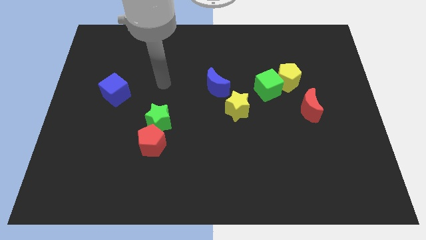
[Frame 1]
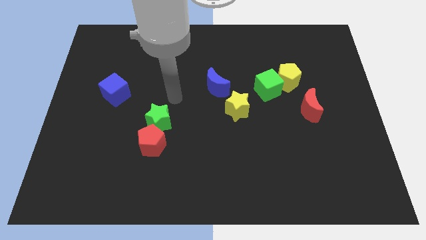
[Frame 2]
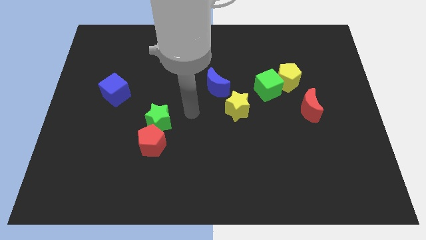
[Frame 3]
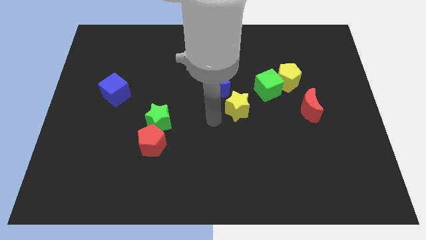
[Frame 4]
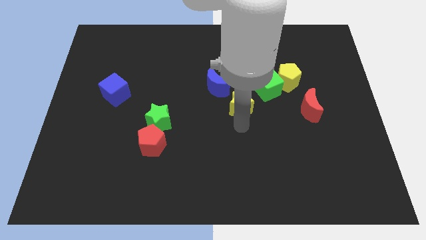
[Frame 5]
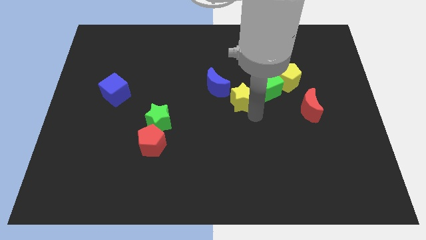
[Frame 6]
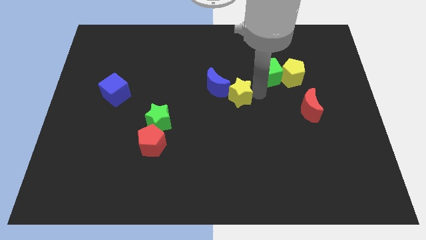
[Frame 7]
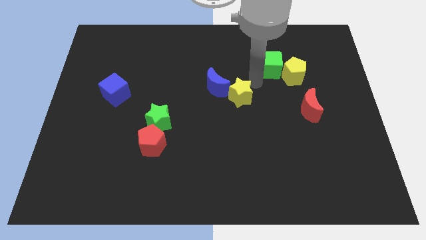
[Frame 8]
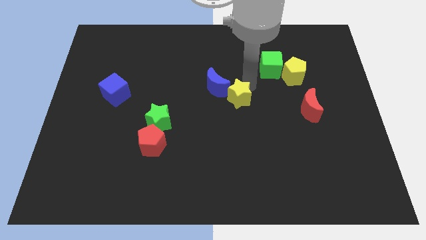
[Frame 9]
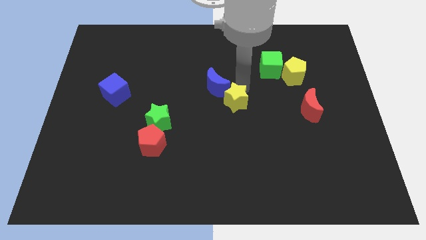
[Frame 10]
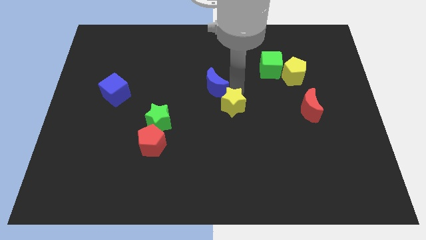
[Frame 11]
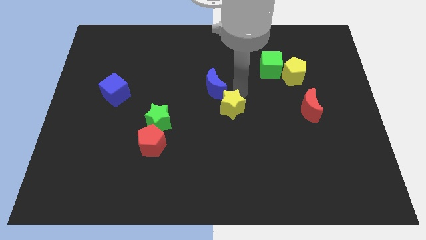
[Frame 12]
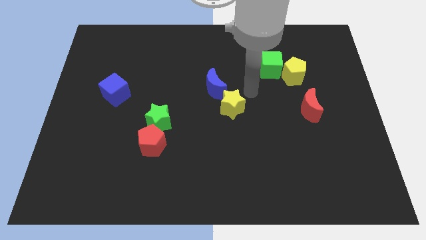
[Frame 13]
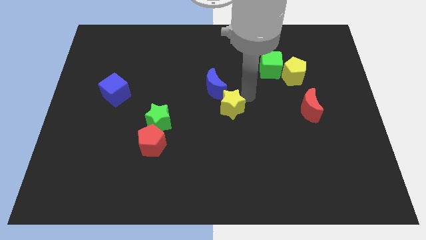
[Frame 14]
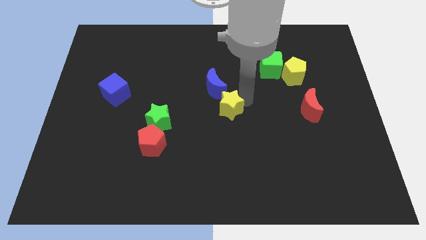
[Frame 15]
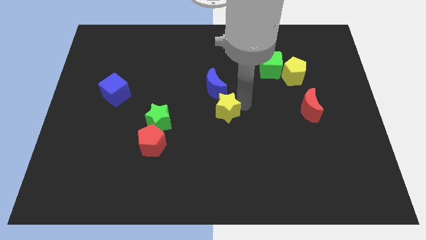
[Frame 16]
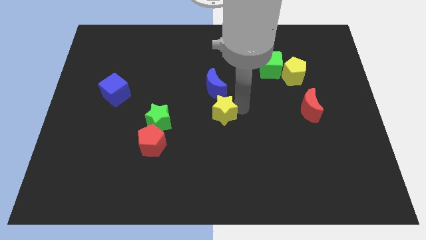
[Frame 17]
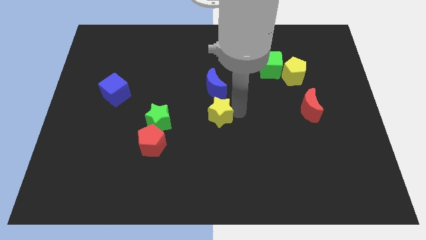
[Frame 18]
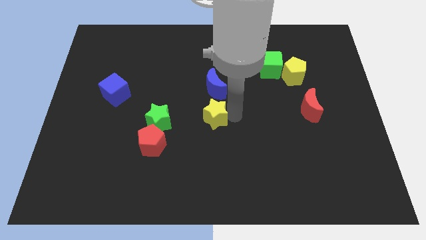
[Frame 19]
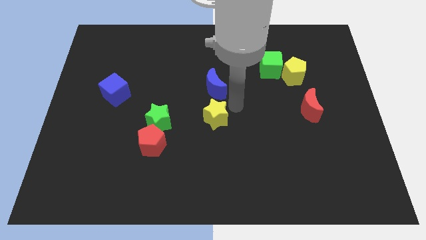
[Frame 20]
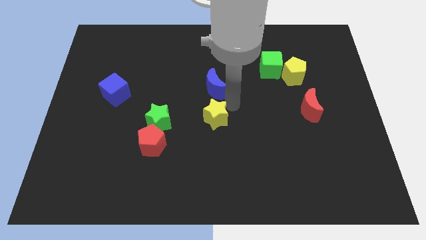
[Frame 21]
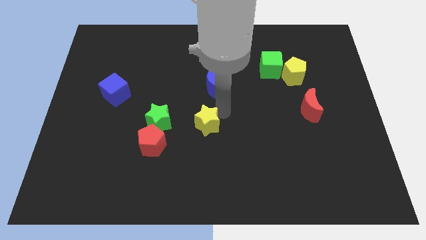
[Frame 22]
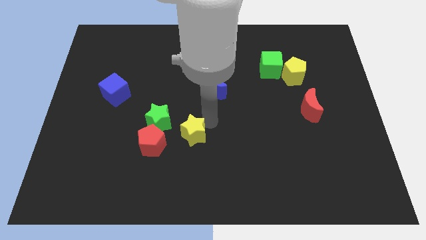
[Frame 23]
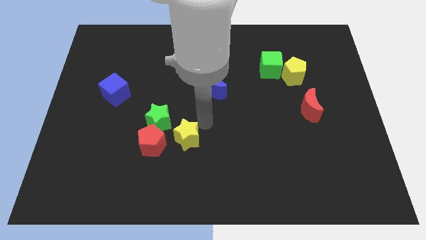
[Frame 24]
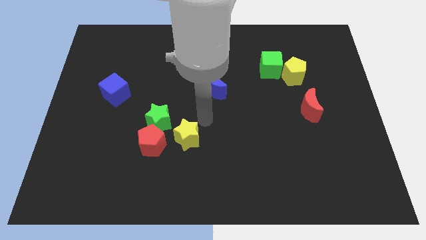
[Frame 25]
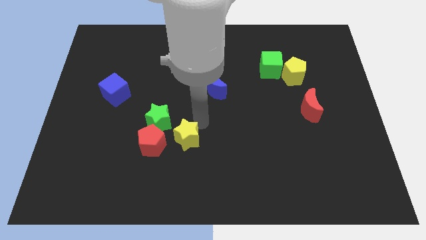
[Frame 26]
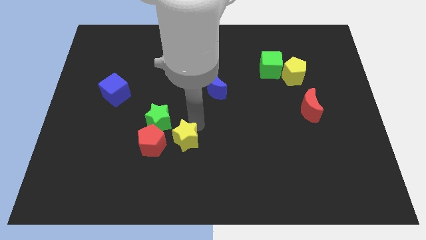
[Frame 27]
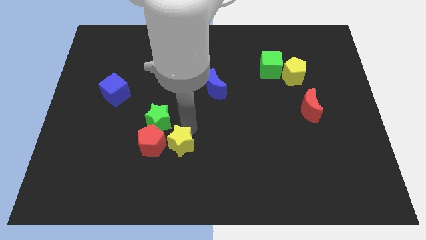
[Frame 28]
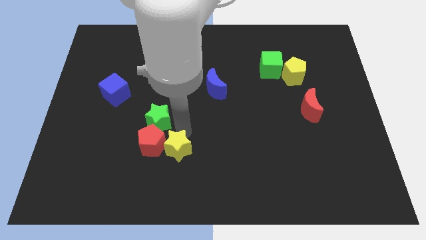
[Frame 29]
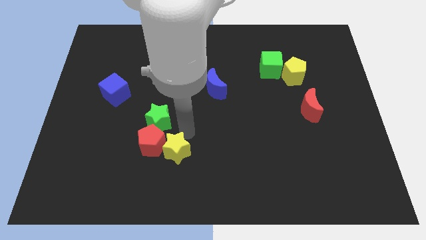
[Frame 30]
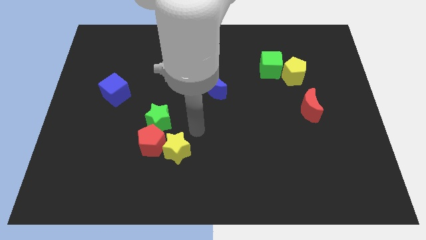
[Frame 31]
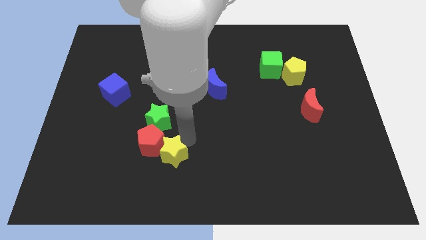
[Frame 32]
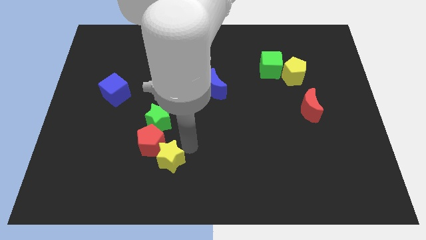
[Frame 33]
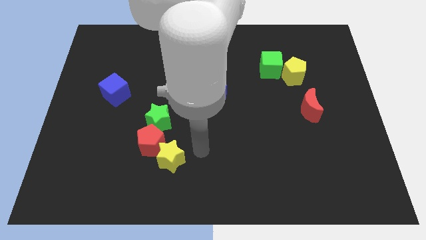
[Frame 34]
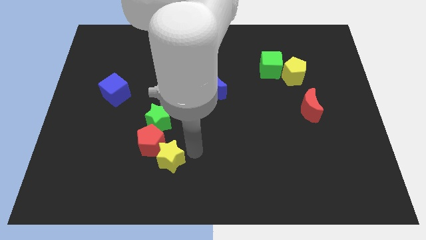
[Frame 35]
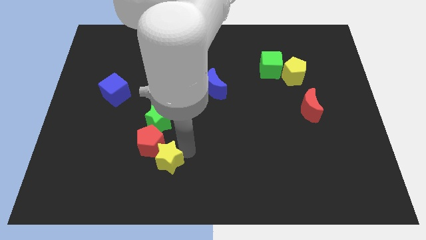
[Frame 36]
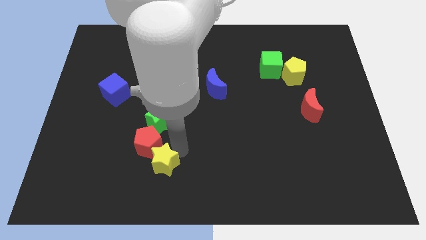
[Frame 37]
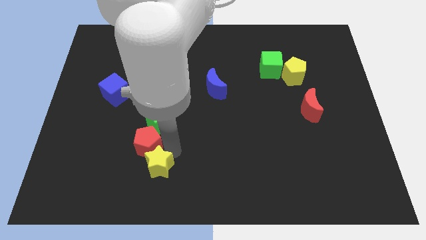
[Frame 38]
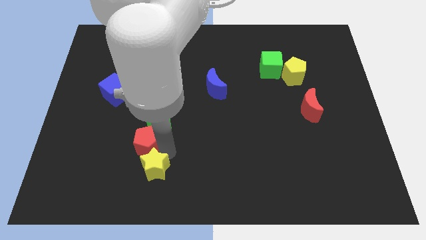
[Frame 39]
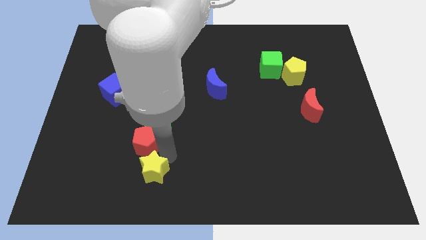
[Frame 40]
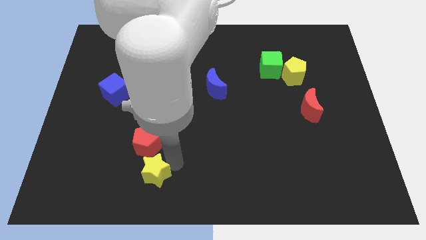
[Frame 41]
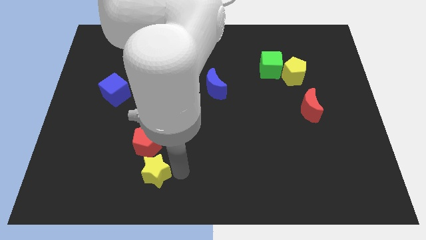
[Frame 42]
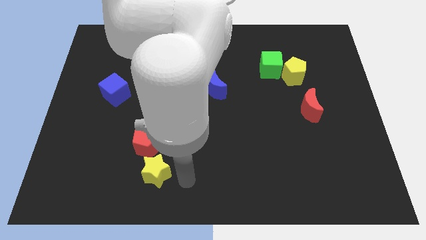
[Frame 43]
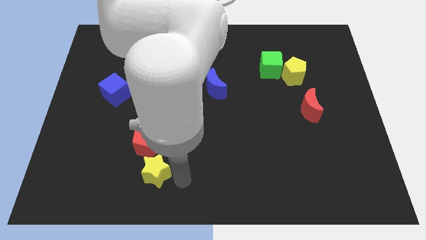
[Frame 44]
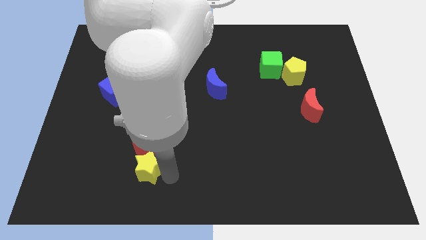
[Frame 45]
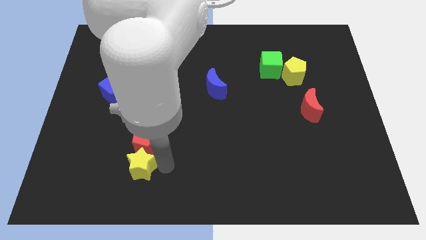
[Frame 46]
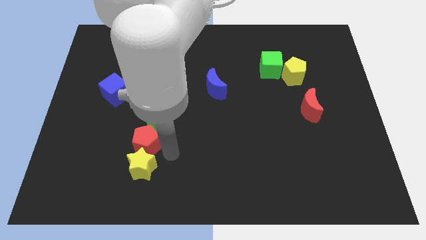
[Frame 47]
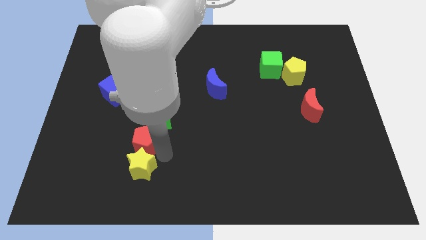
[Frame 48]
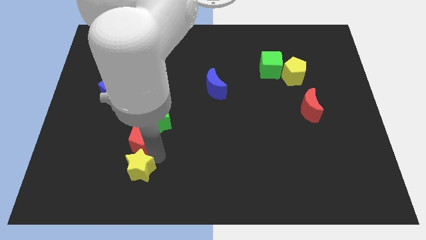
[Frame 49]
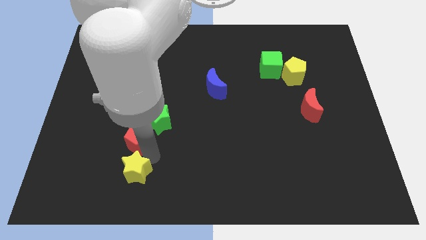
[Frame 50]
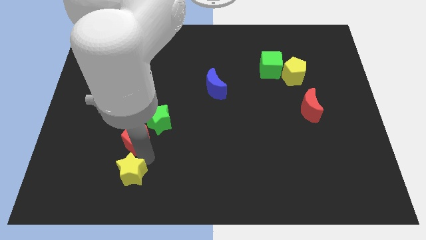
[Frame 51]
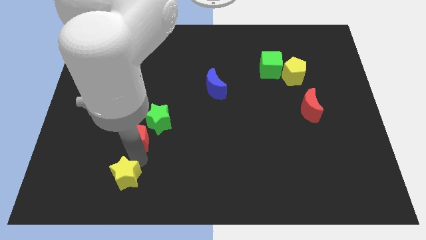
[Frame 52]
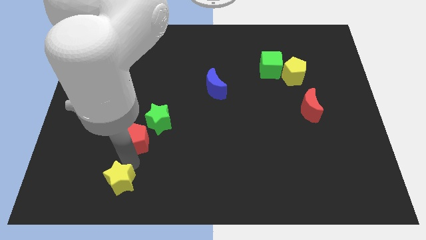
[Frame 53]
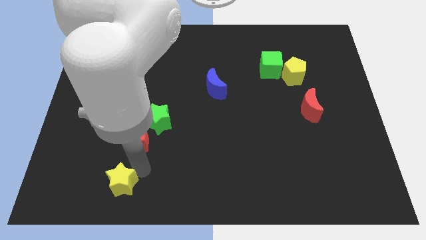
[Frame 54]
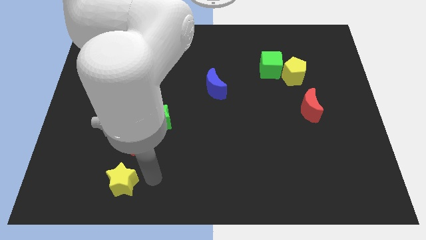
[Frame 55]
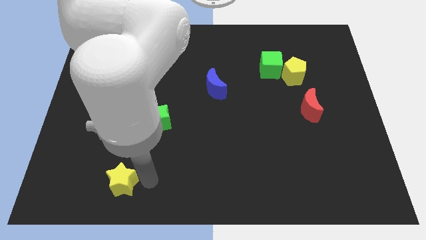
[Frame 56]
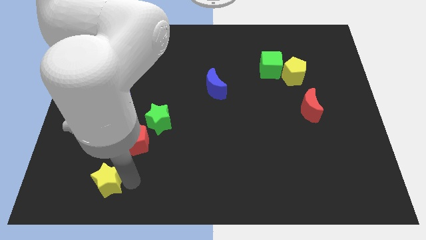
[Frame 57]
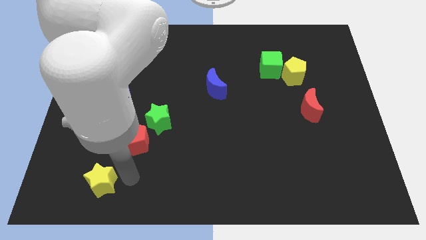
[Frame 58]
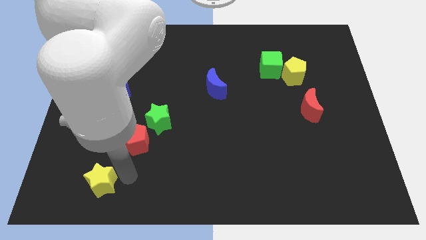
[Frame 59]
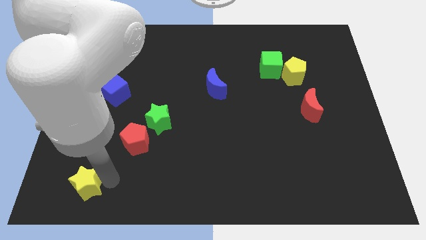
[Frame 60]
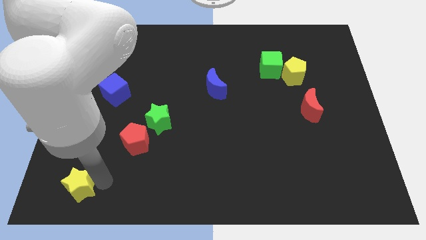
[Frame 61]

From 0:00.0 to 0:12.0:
slide the yellow star to the bottom left of the board
